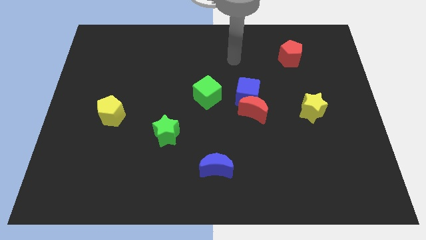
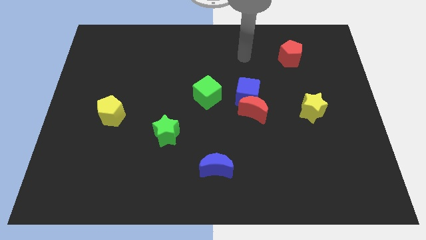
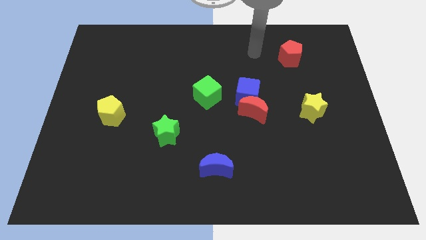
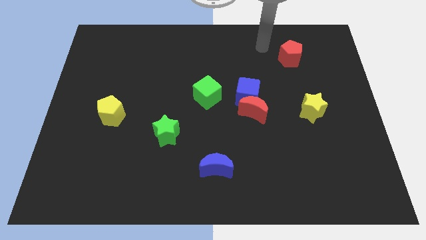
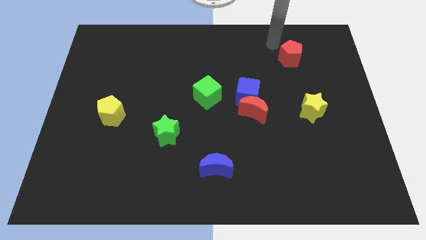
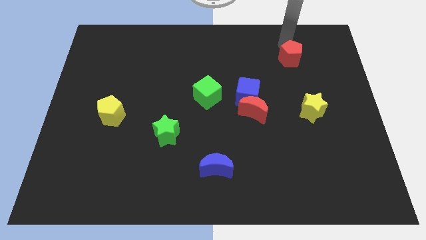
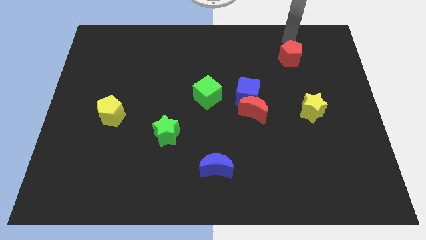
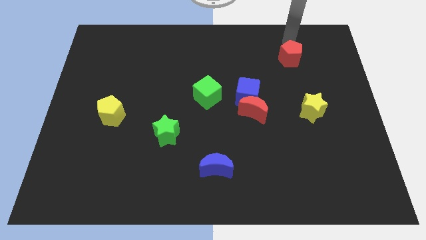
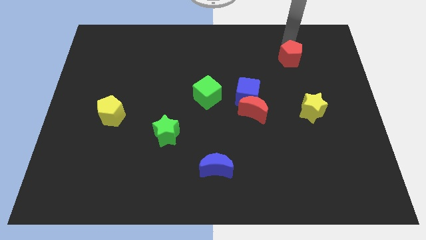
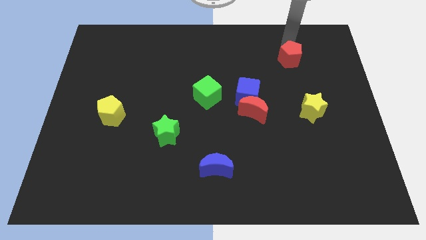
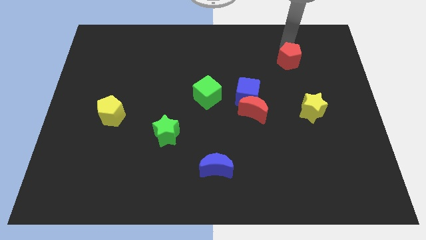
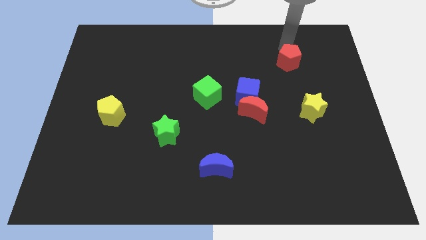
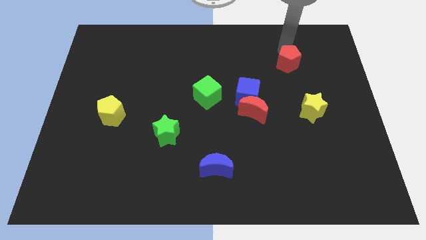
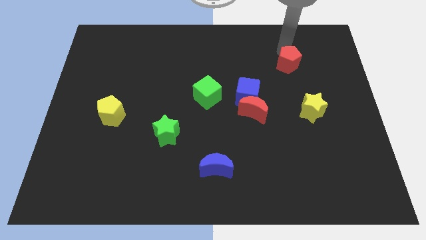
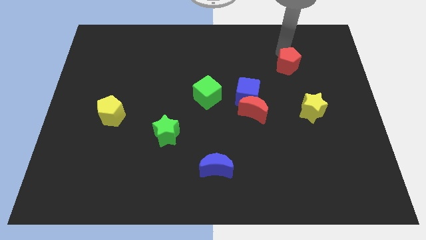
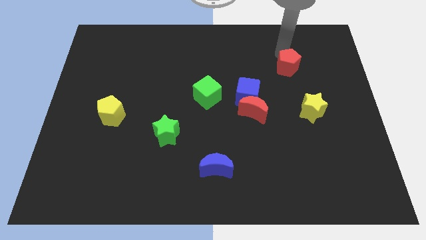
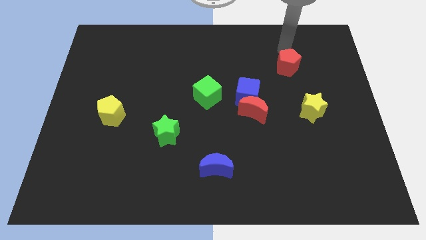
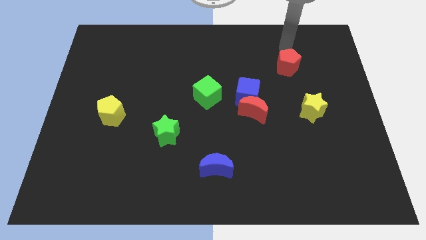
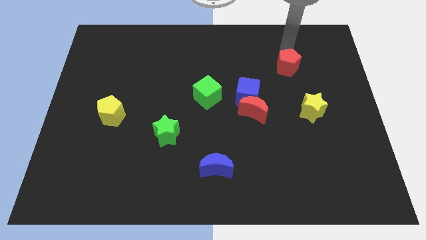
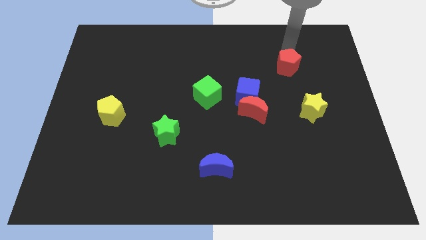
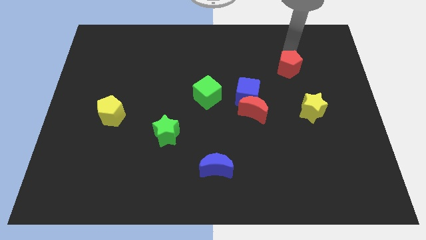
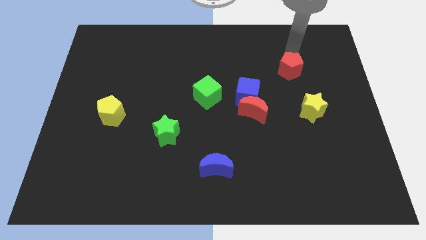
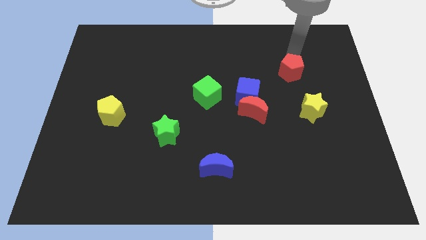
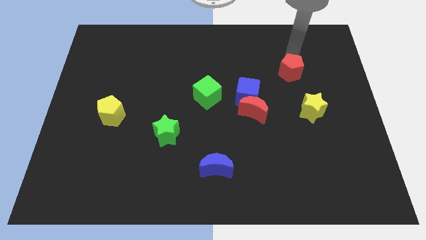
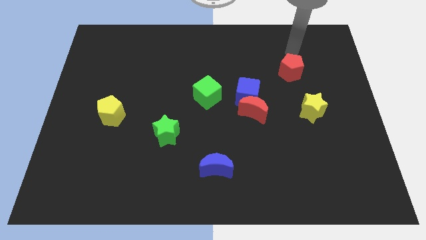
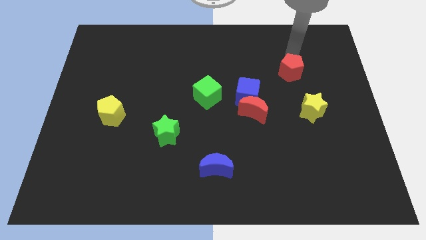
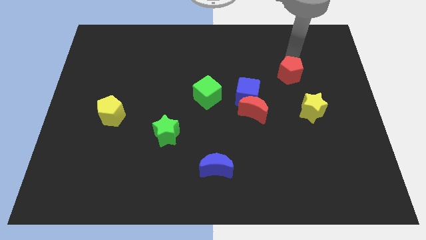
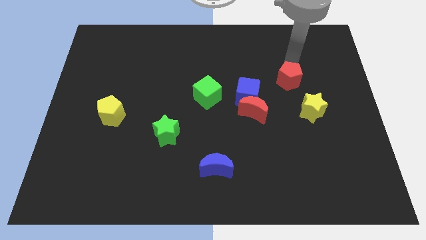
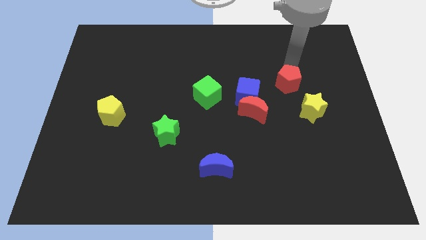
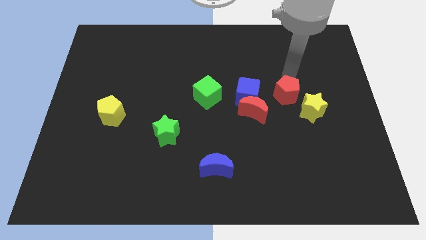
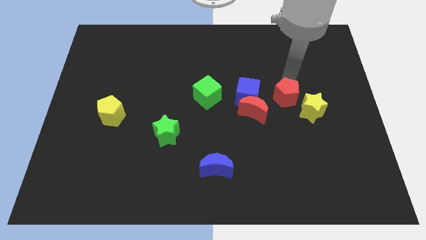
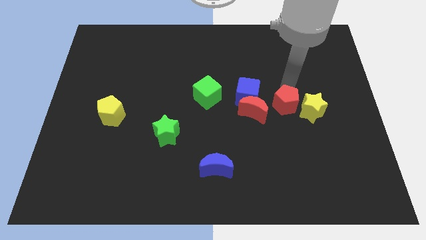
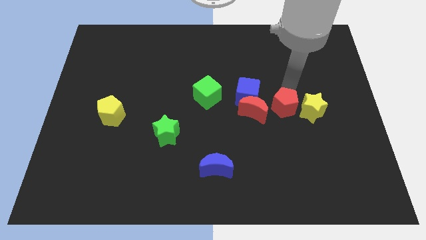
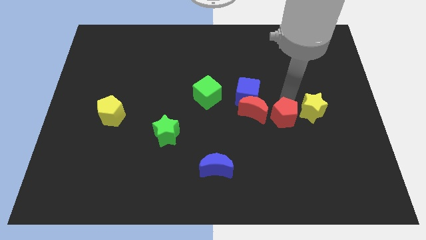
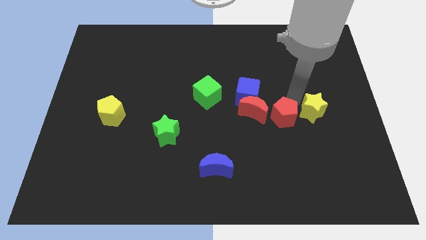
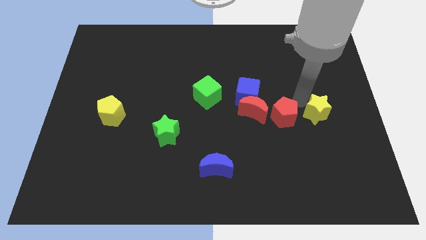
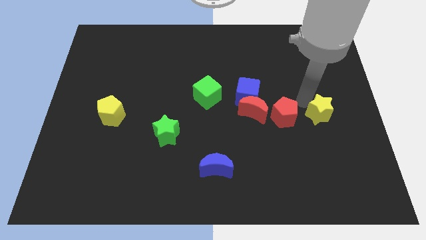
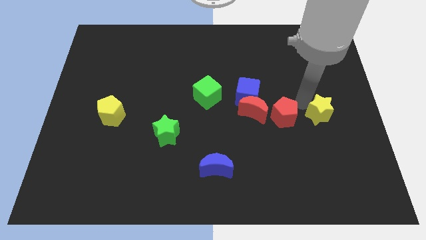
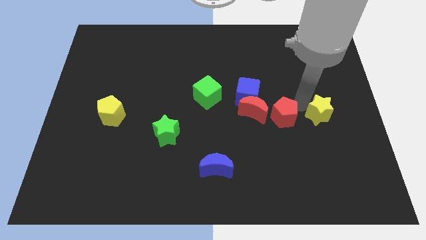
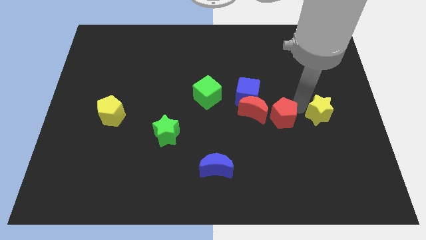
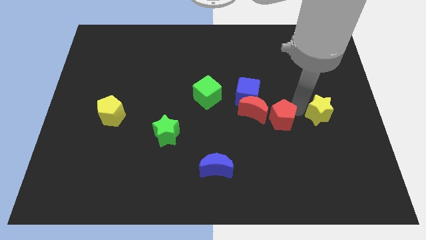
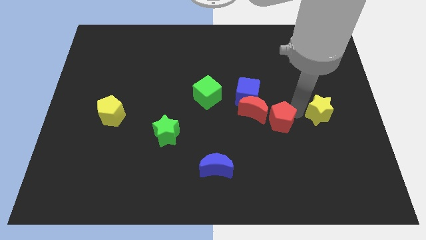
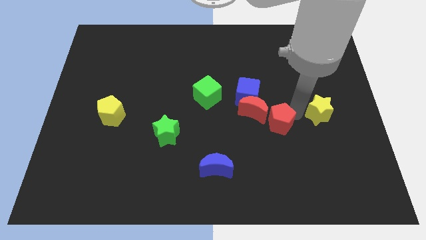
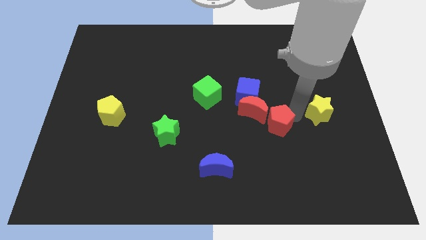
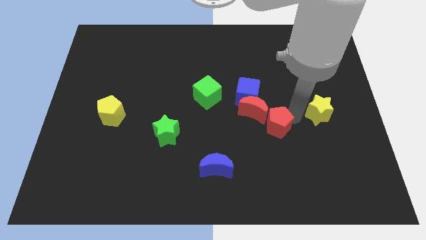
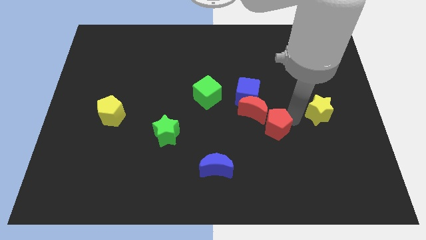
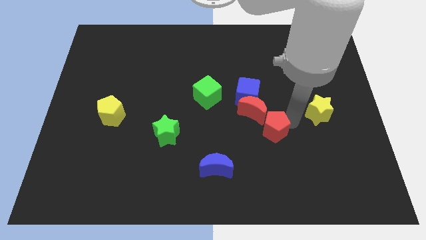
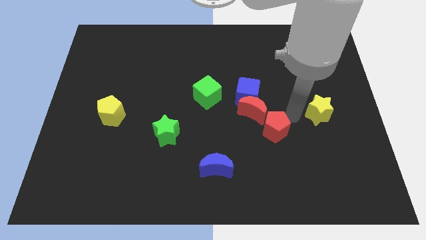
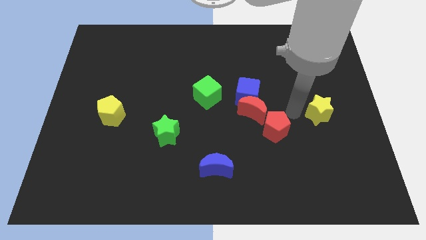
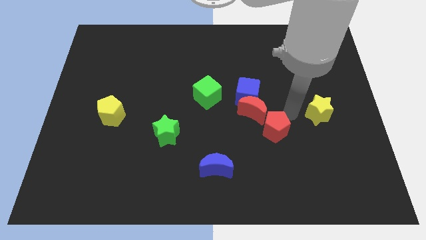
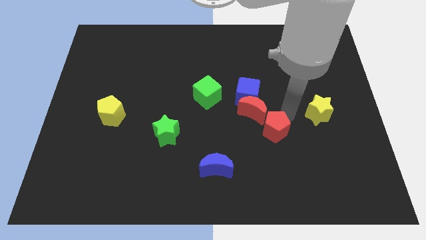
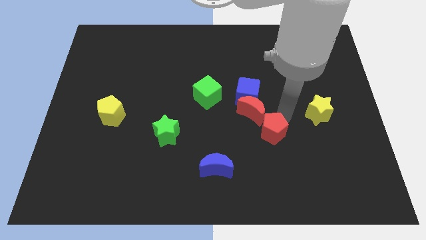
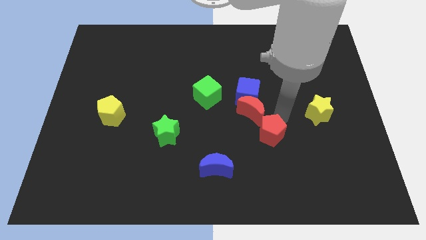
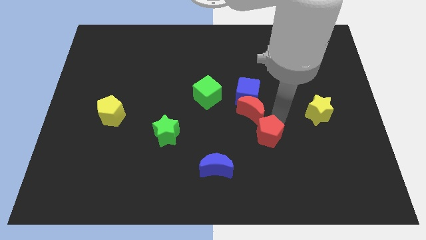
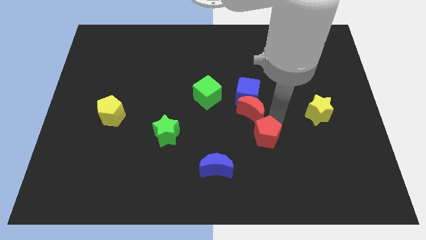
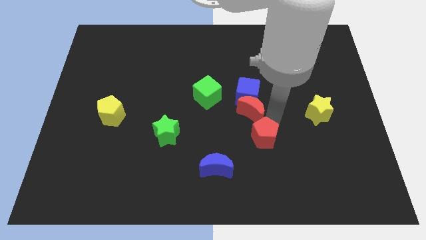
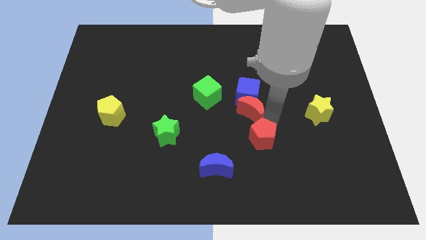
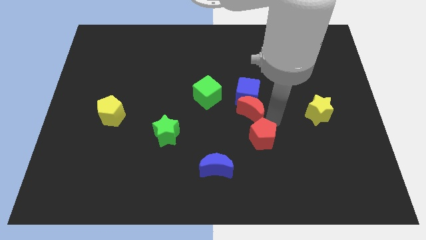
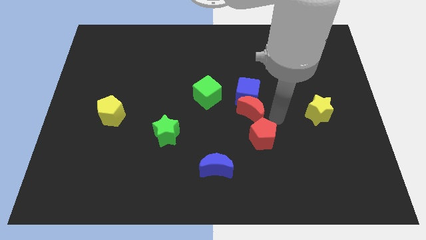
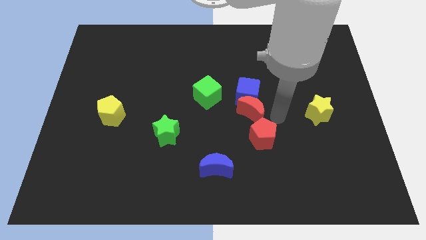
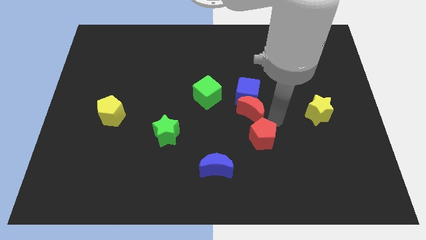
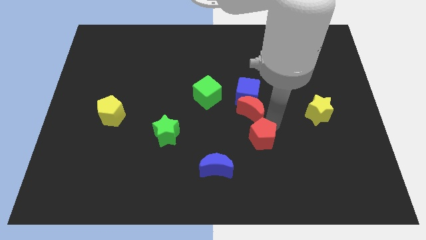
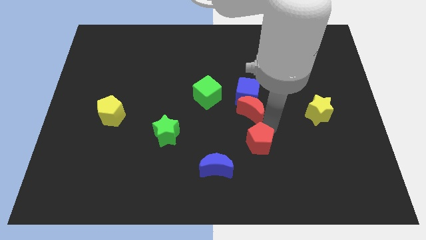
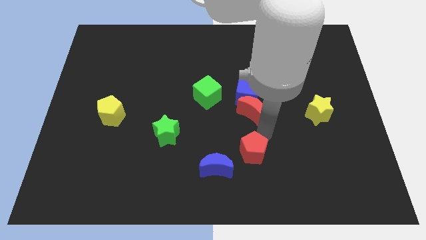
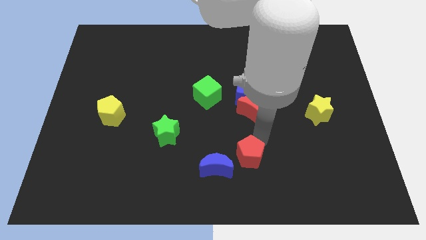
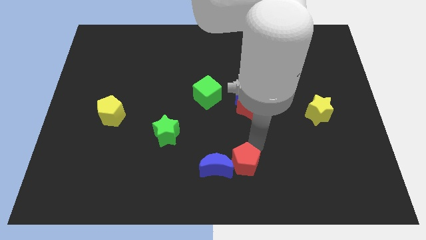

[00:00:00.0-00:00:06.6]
put the red pentagon to the bottom side

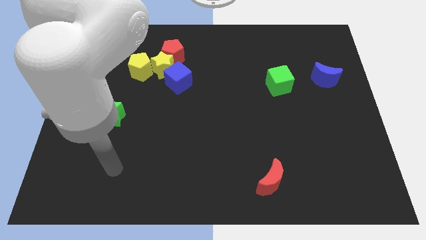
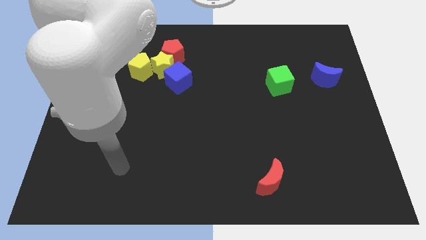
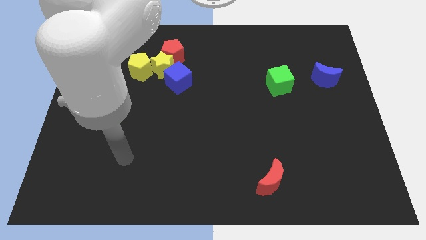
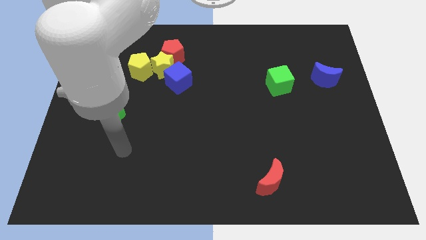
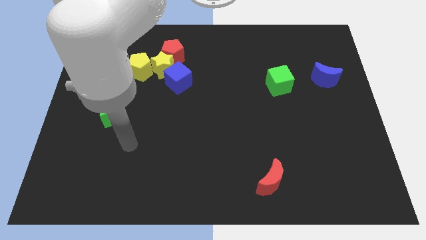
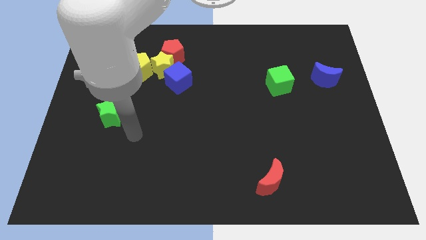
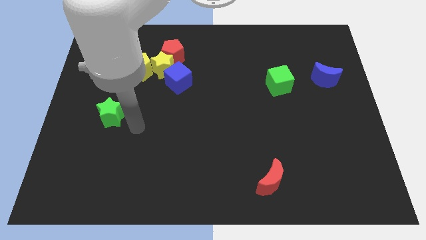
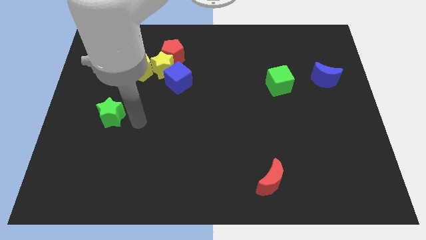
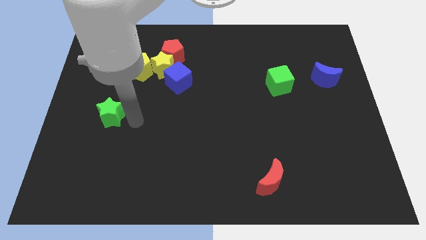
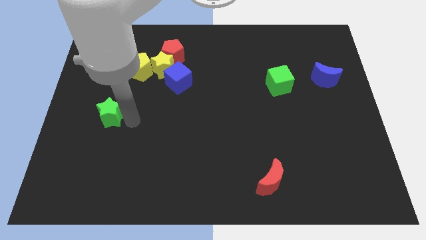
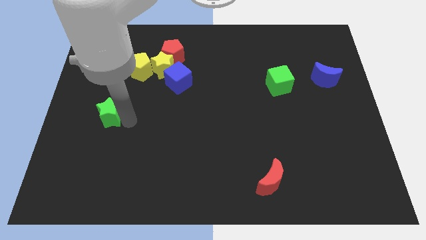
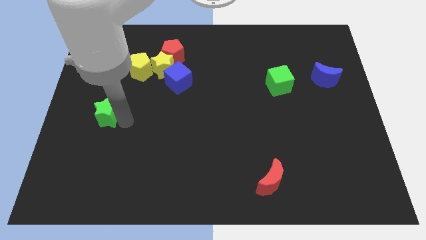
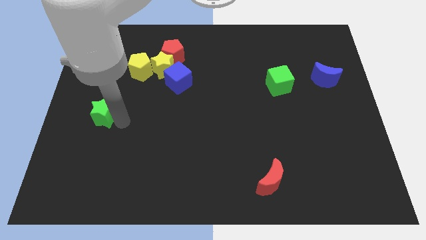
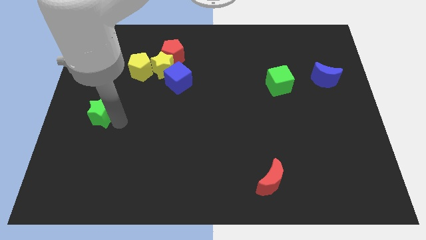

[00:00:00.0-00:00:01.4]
slide the green star to the left side
